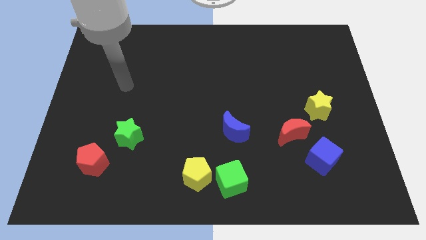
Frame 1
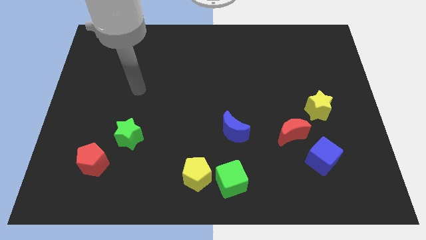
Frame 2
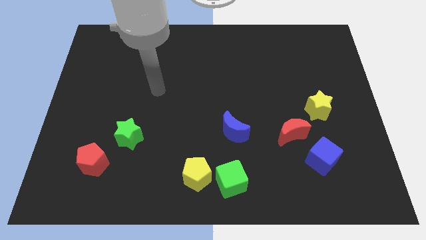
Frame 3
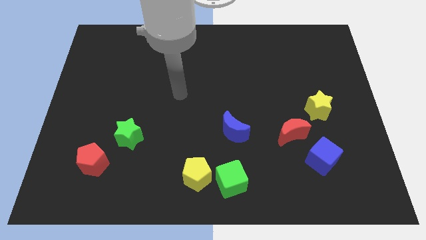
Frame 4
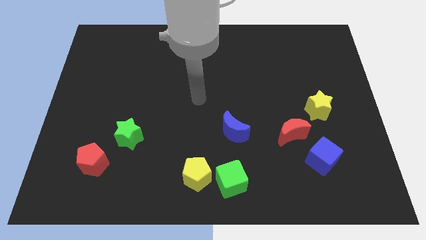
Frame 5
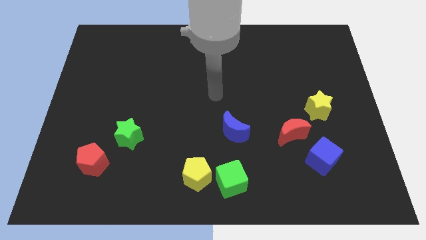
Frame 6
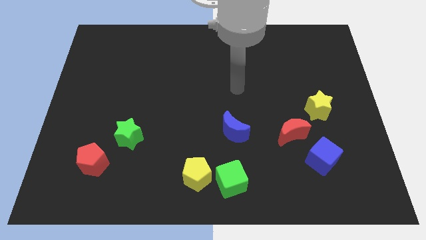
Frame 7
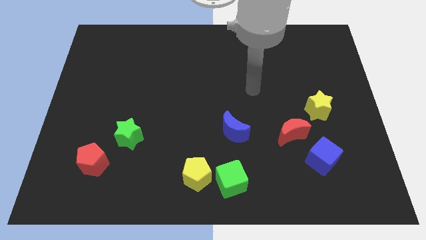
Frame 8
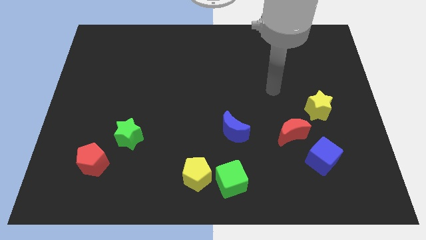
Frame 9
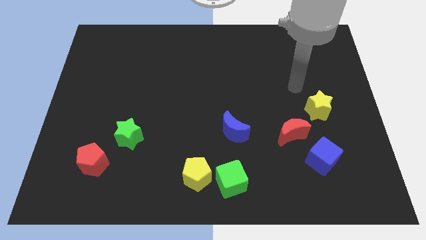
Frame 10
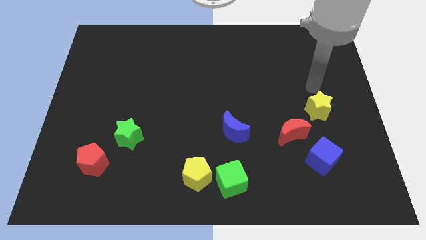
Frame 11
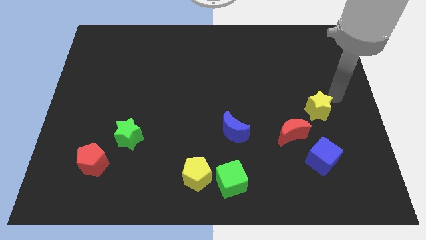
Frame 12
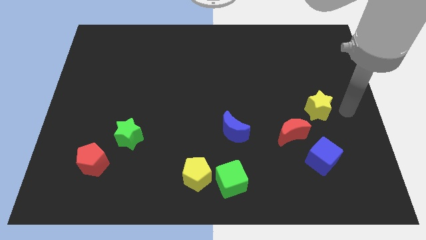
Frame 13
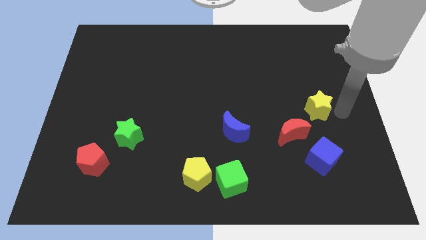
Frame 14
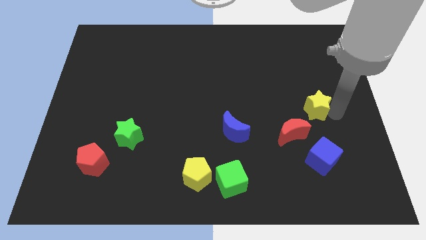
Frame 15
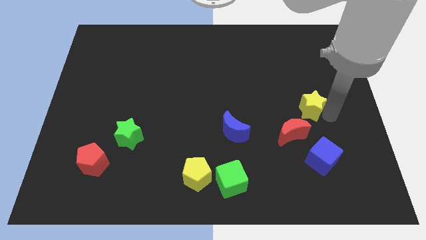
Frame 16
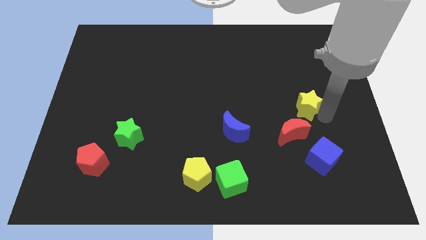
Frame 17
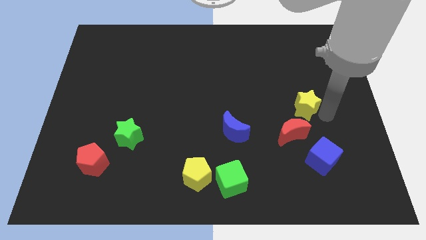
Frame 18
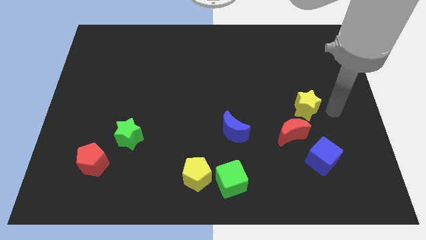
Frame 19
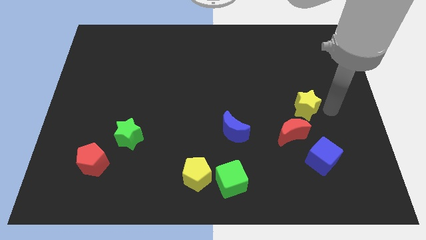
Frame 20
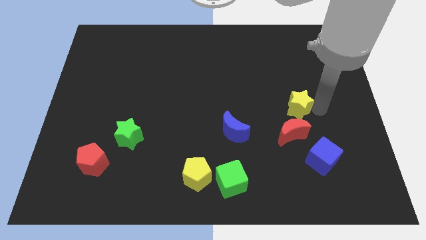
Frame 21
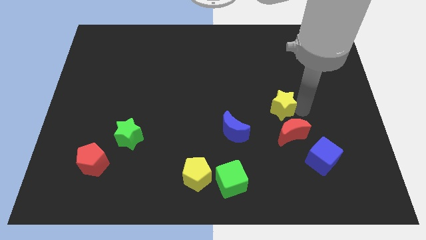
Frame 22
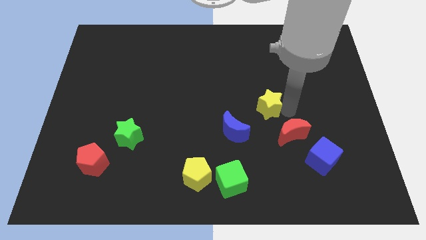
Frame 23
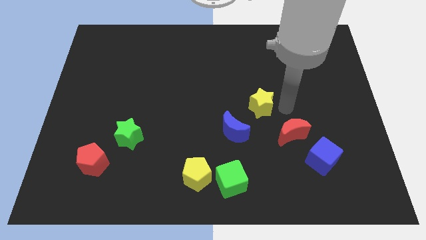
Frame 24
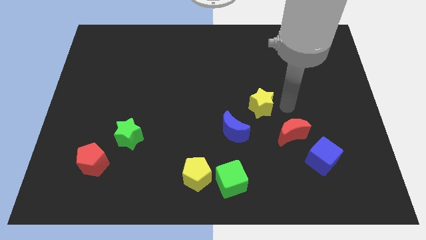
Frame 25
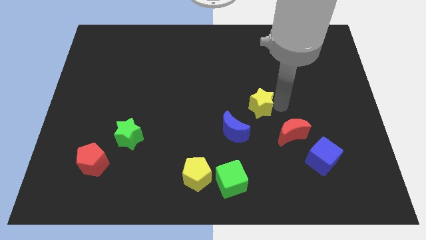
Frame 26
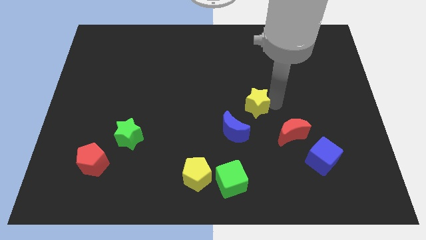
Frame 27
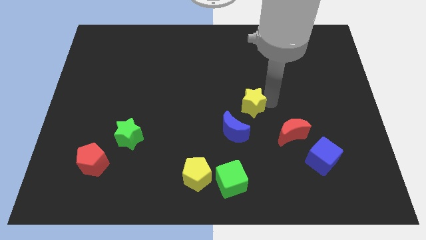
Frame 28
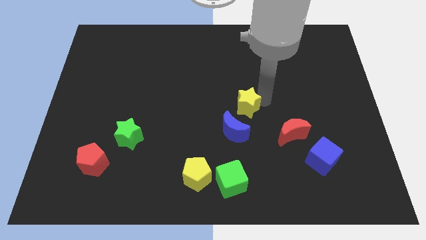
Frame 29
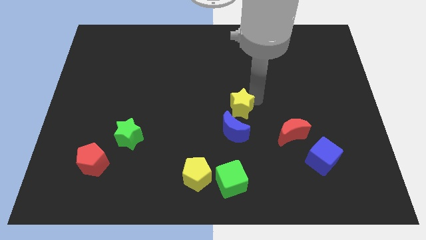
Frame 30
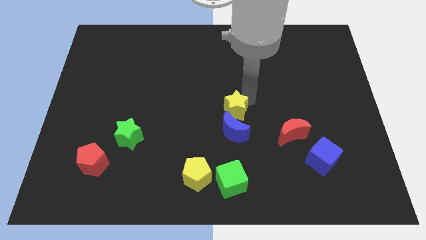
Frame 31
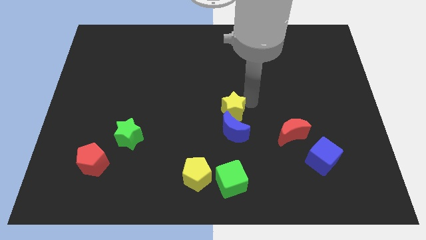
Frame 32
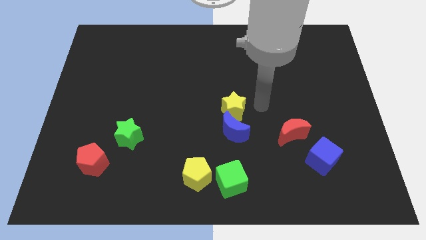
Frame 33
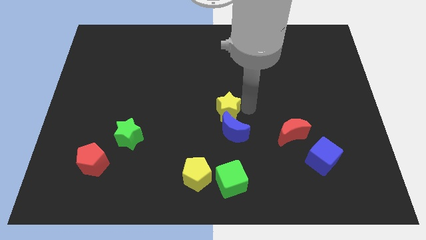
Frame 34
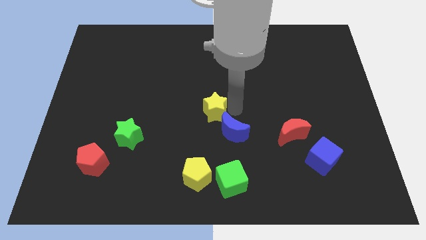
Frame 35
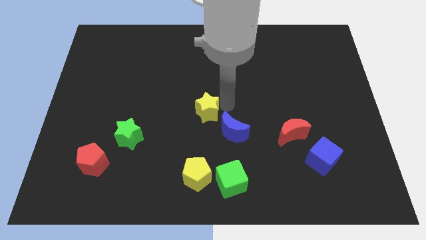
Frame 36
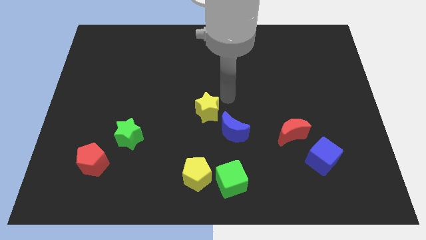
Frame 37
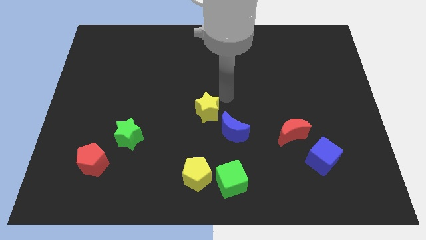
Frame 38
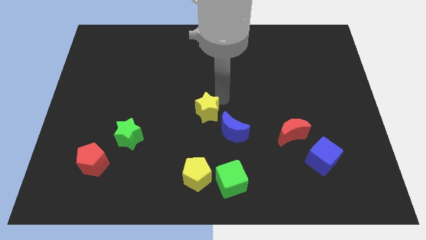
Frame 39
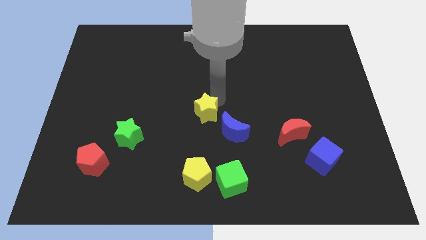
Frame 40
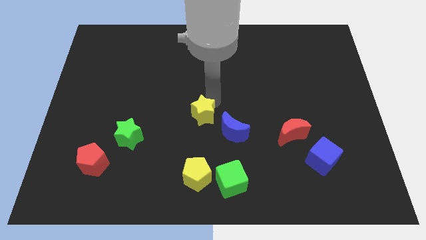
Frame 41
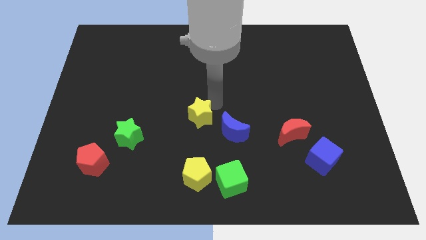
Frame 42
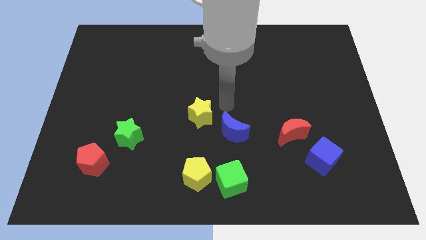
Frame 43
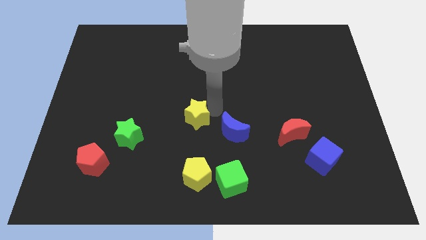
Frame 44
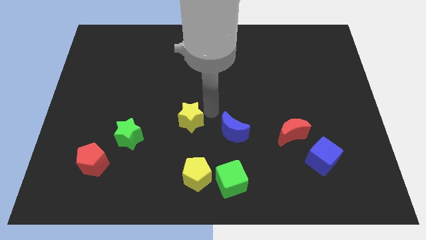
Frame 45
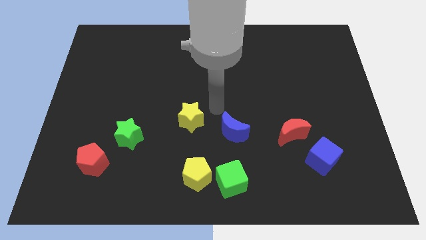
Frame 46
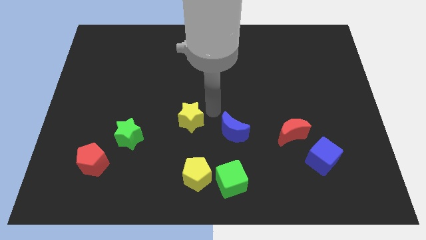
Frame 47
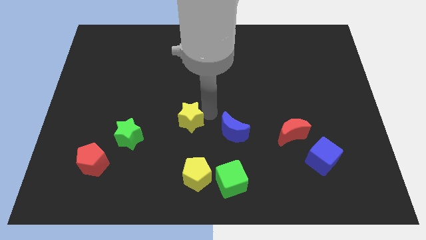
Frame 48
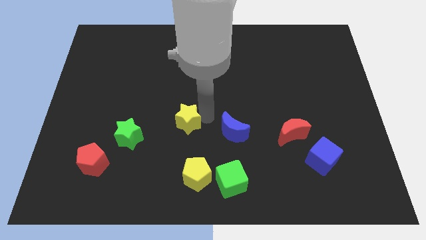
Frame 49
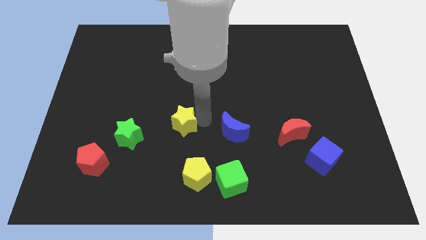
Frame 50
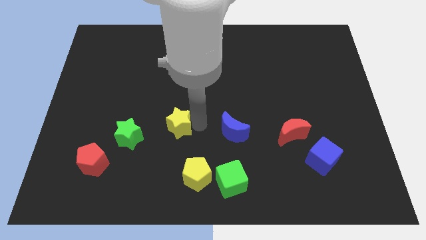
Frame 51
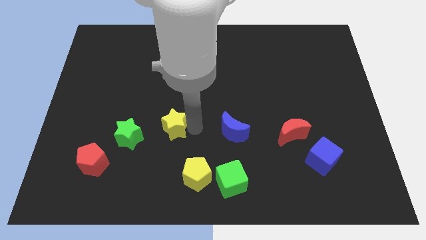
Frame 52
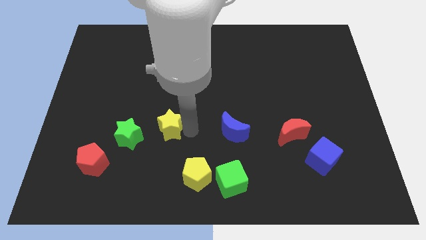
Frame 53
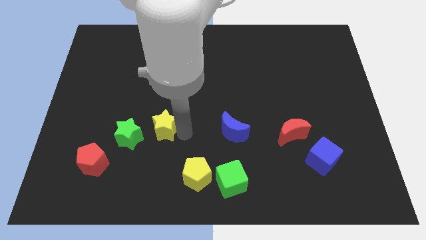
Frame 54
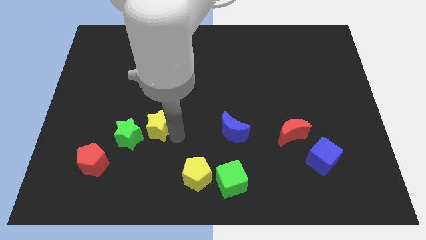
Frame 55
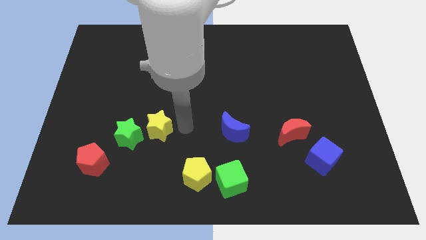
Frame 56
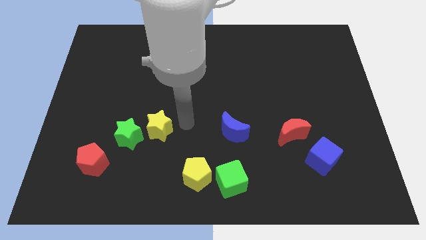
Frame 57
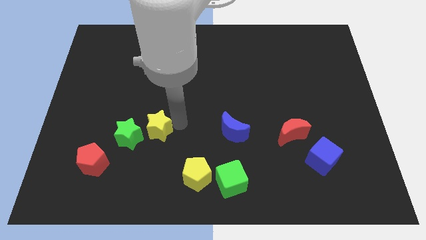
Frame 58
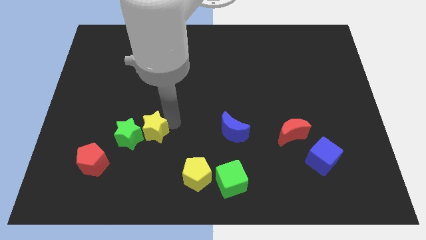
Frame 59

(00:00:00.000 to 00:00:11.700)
move the yellow star next to the green star

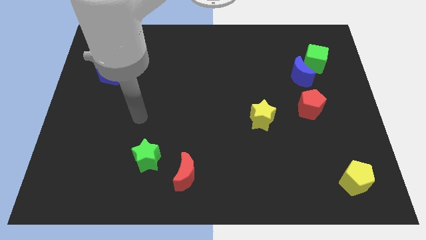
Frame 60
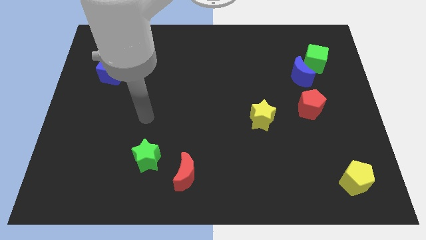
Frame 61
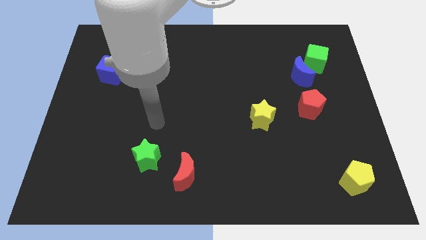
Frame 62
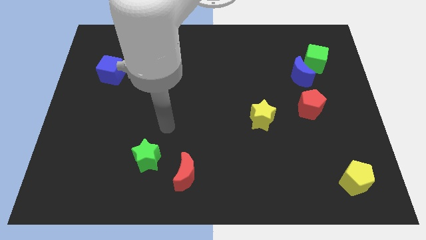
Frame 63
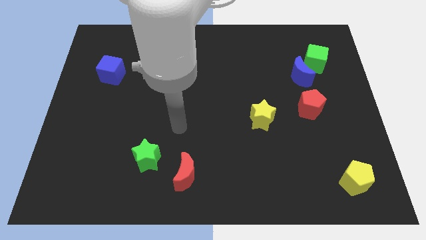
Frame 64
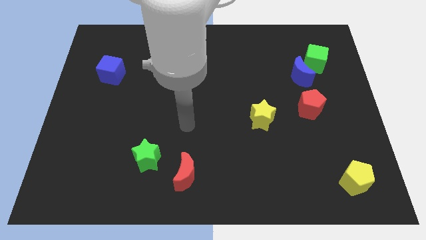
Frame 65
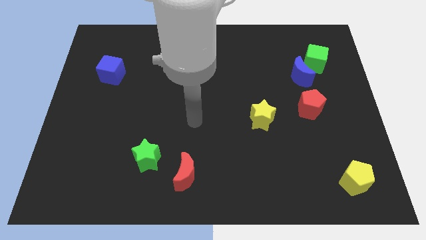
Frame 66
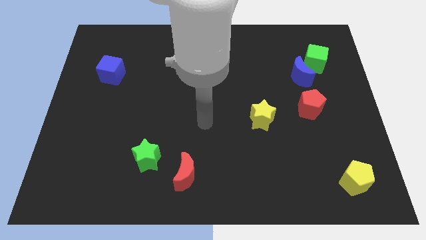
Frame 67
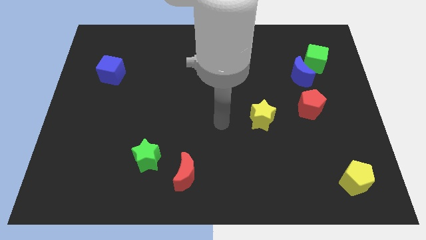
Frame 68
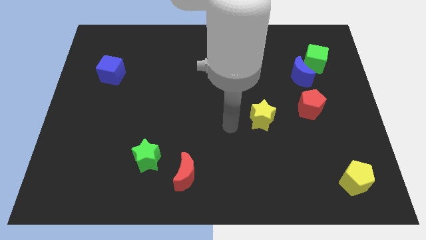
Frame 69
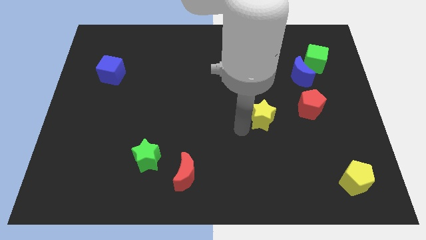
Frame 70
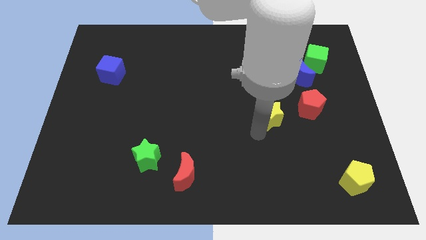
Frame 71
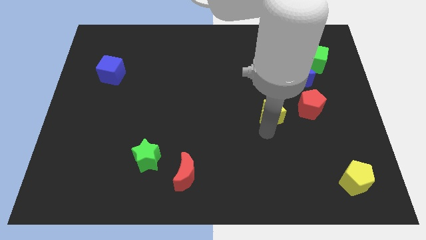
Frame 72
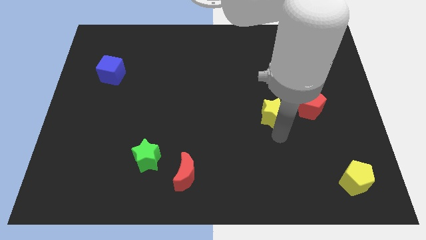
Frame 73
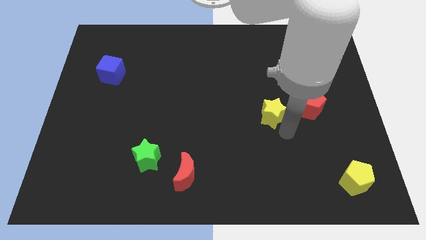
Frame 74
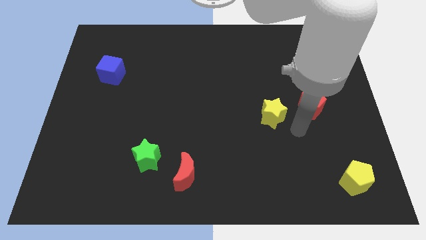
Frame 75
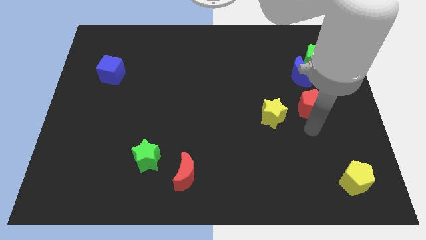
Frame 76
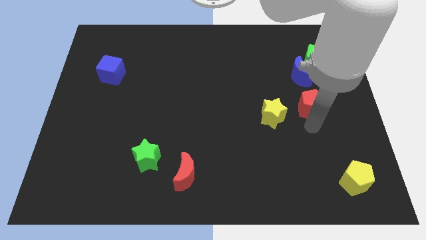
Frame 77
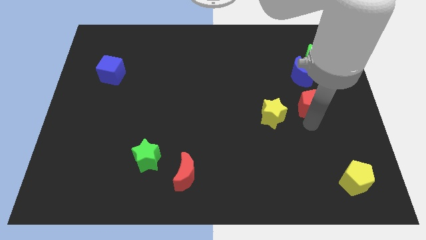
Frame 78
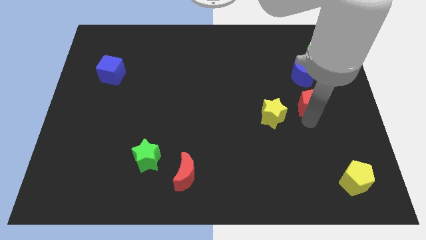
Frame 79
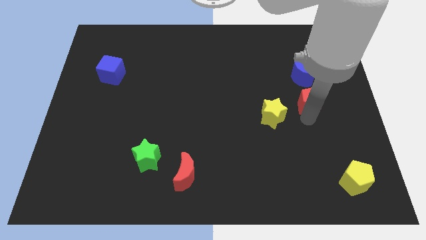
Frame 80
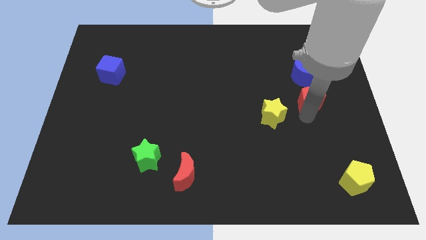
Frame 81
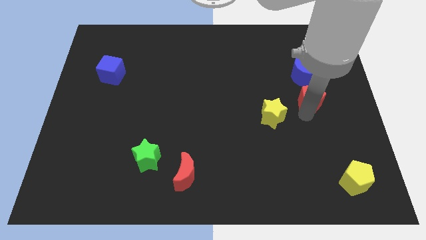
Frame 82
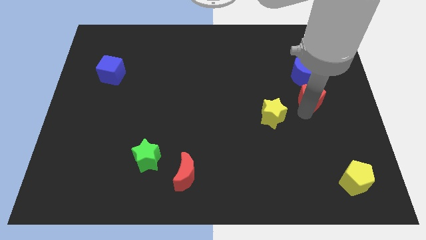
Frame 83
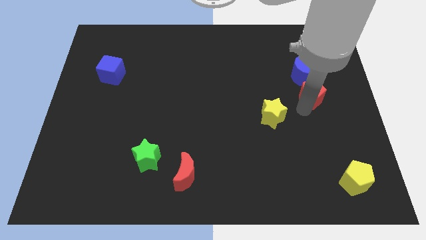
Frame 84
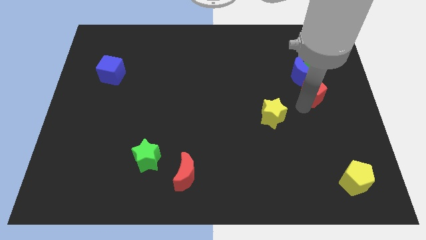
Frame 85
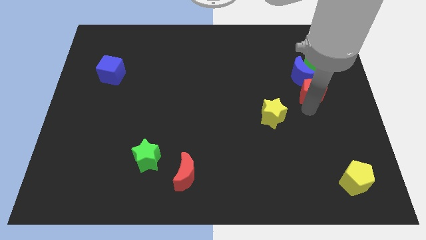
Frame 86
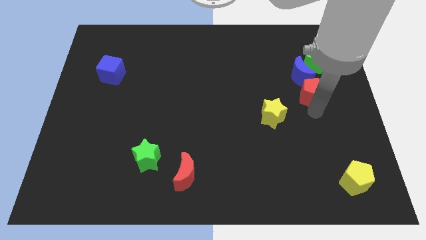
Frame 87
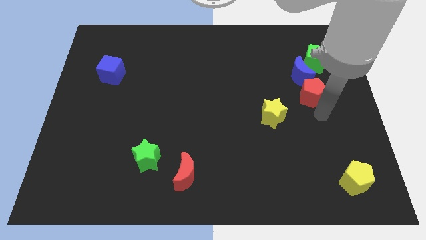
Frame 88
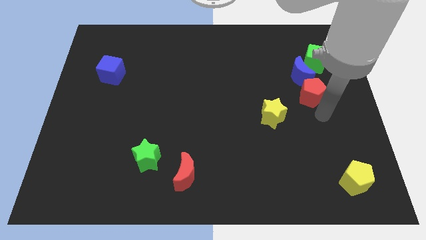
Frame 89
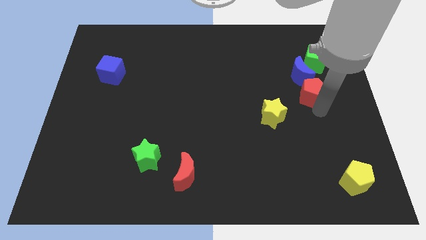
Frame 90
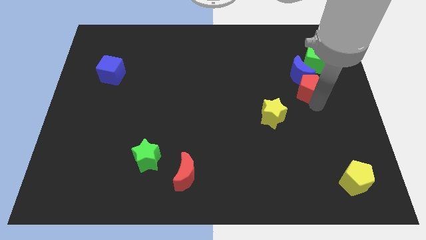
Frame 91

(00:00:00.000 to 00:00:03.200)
move the red pentagon towards the blue moon
